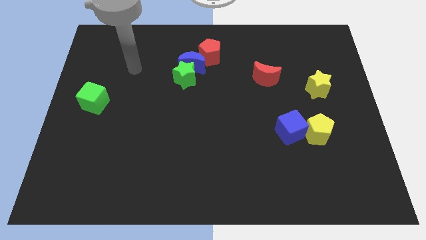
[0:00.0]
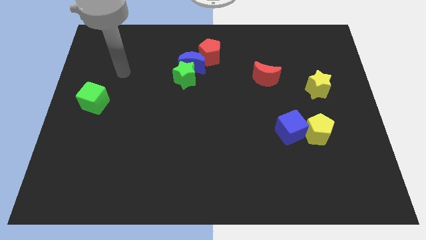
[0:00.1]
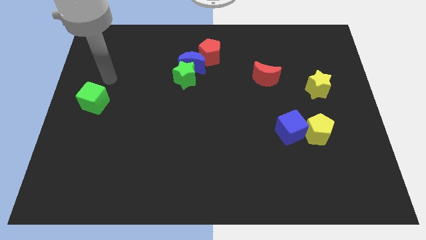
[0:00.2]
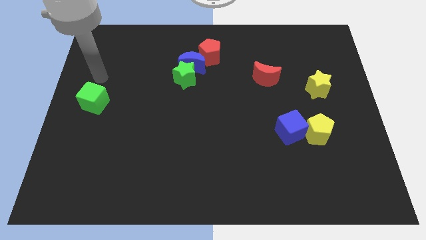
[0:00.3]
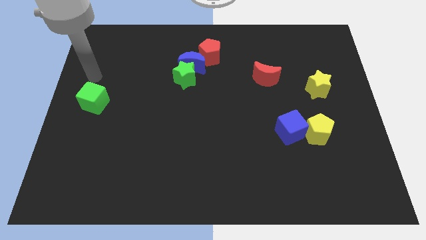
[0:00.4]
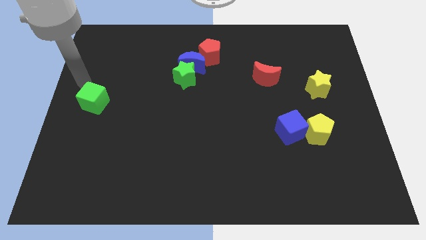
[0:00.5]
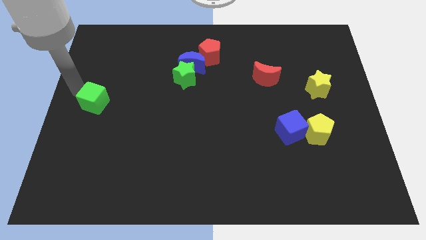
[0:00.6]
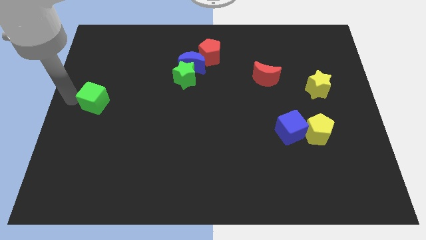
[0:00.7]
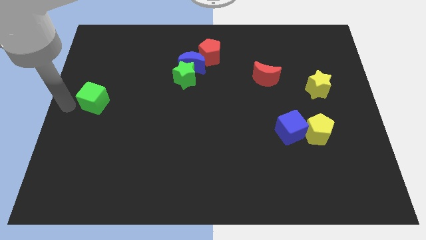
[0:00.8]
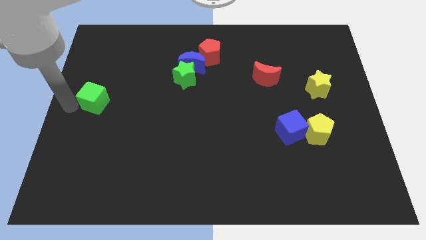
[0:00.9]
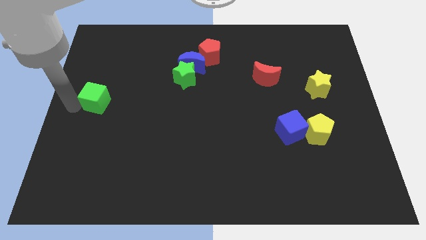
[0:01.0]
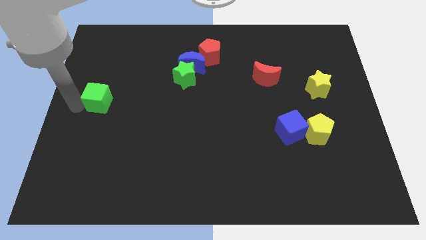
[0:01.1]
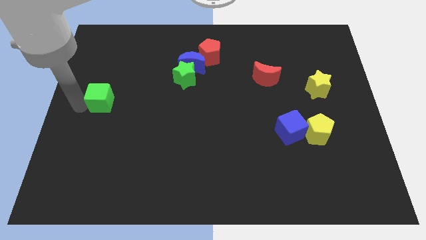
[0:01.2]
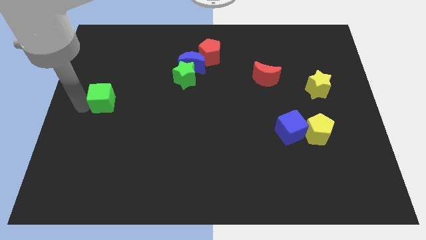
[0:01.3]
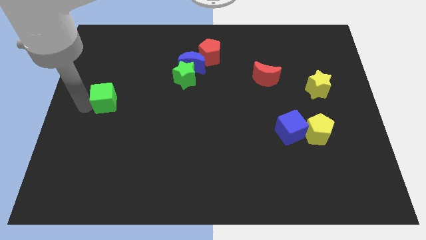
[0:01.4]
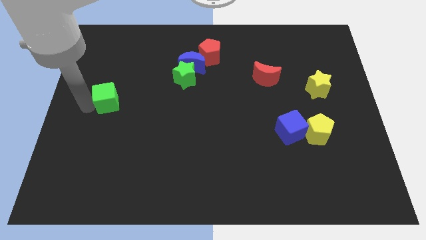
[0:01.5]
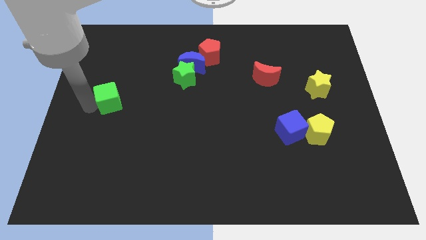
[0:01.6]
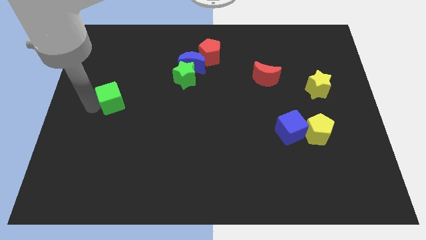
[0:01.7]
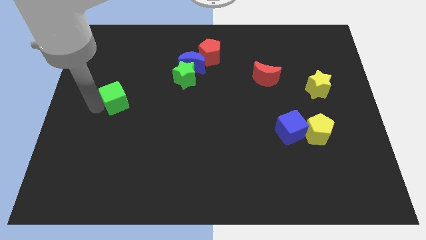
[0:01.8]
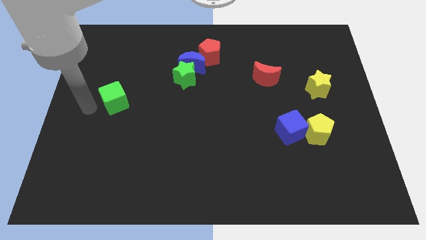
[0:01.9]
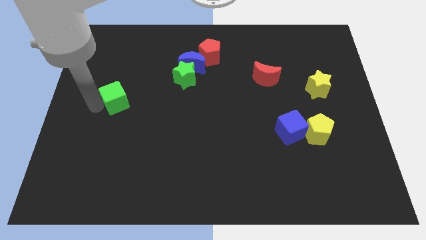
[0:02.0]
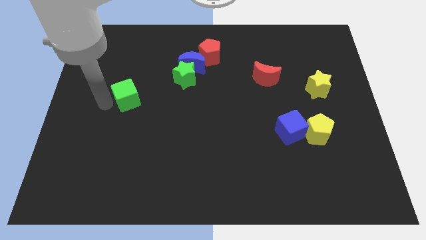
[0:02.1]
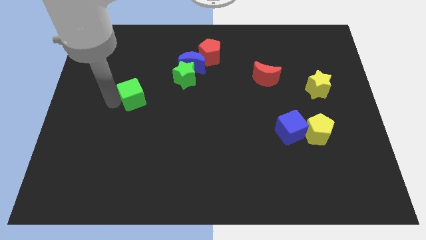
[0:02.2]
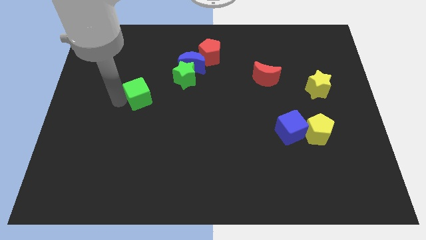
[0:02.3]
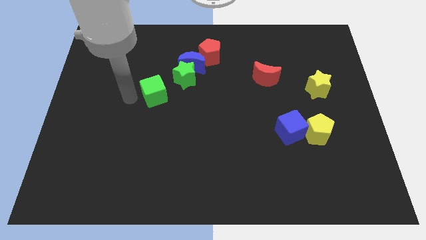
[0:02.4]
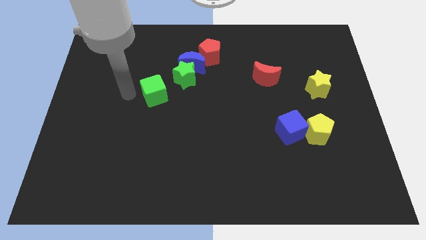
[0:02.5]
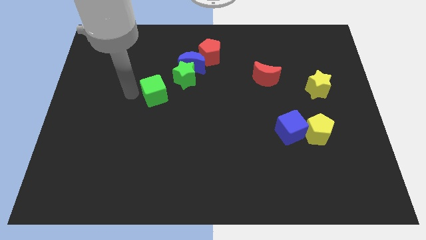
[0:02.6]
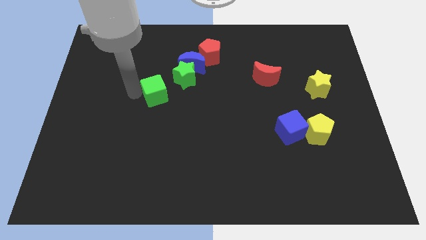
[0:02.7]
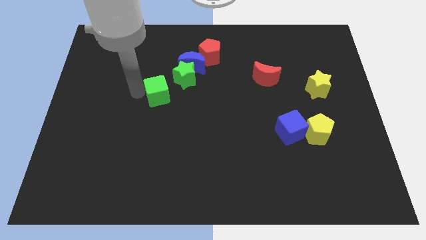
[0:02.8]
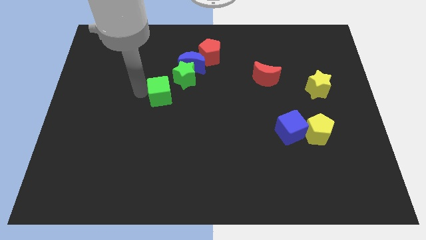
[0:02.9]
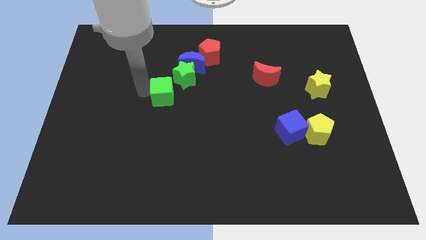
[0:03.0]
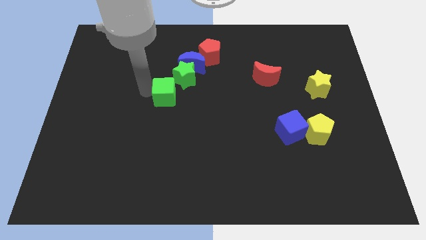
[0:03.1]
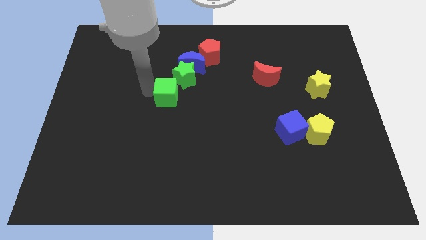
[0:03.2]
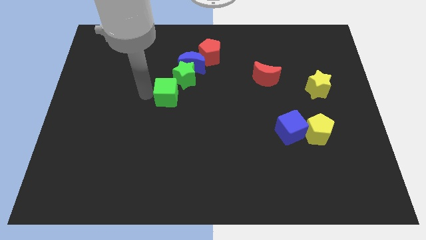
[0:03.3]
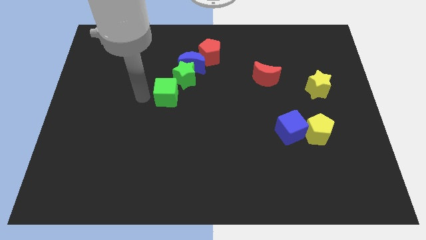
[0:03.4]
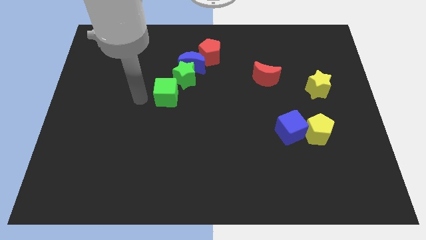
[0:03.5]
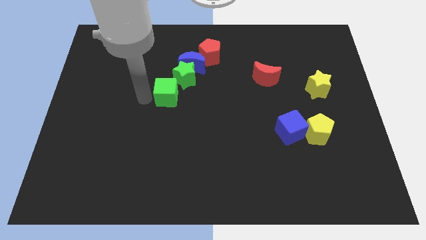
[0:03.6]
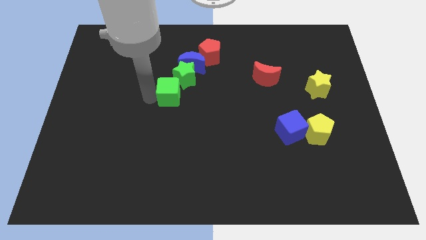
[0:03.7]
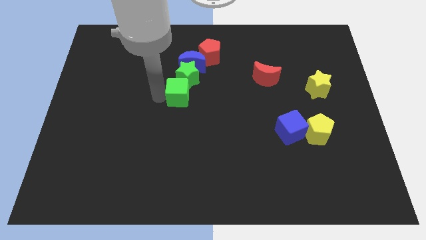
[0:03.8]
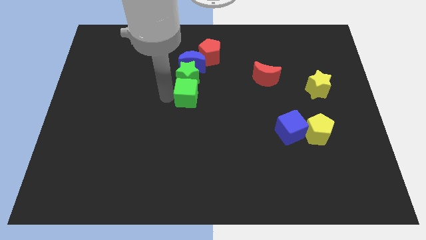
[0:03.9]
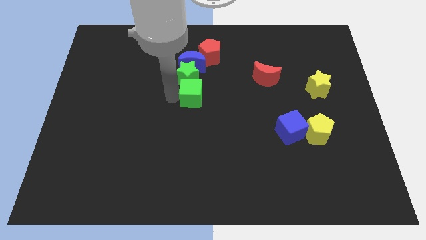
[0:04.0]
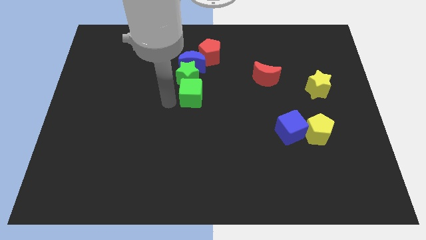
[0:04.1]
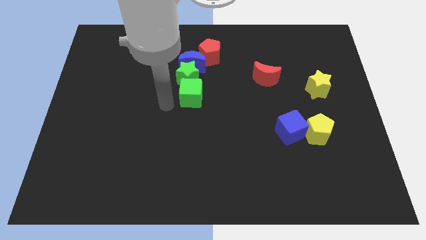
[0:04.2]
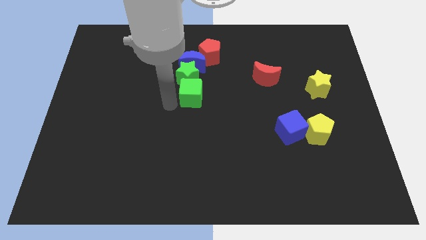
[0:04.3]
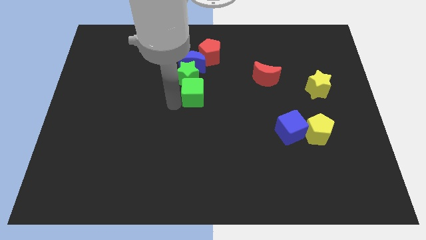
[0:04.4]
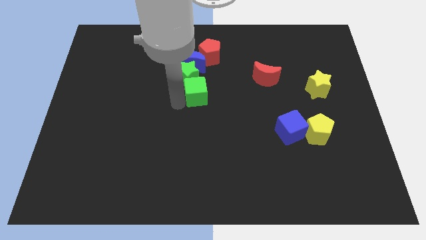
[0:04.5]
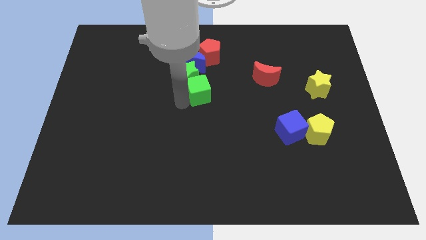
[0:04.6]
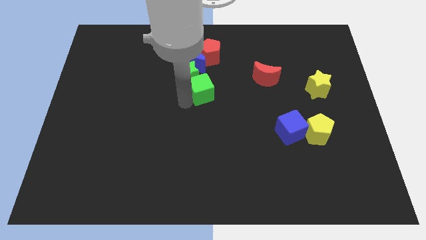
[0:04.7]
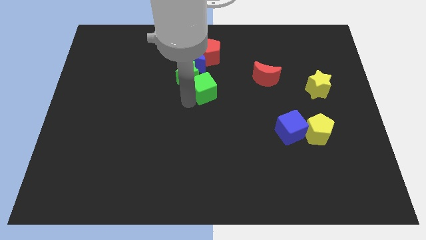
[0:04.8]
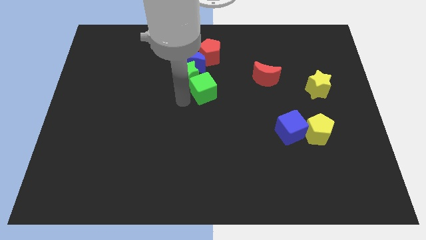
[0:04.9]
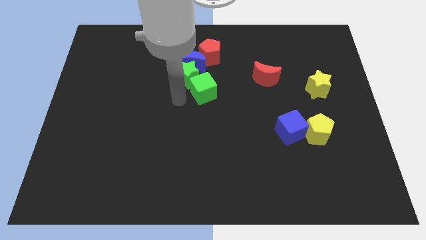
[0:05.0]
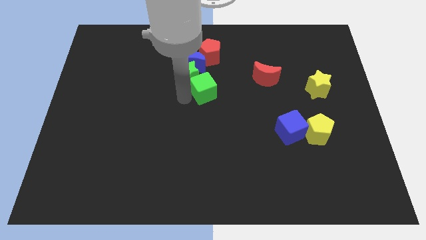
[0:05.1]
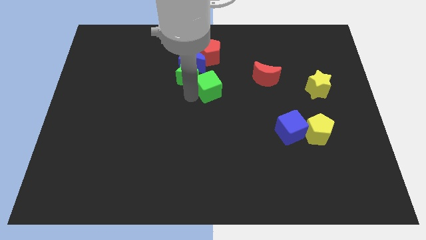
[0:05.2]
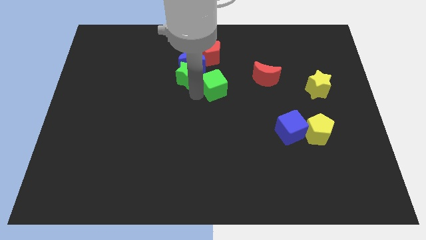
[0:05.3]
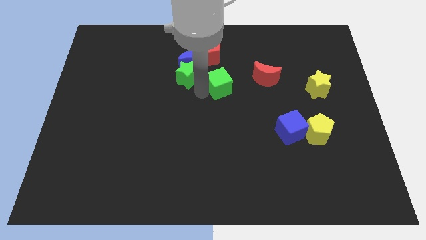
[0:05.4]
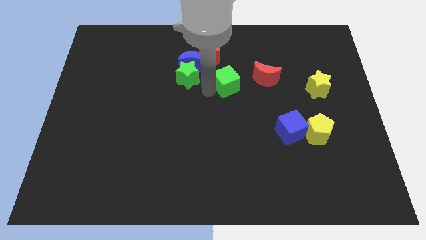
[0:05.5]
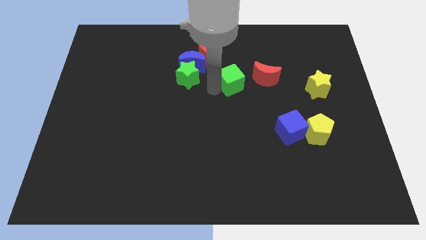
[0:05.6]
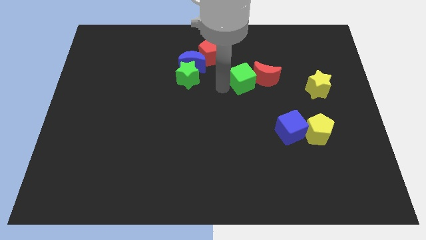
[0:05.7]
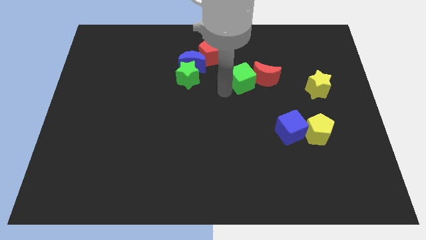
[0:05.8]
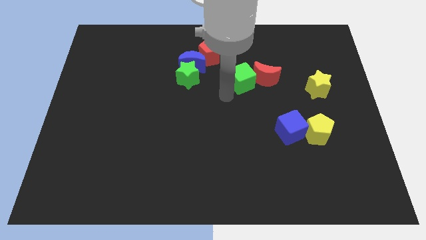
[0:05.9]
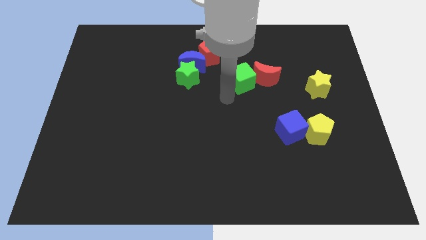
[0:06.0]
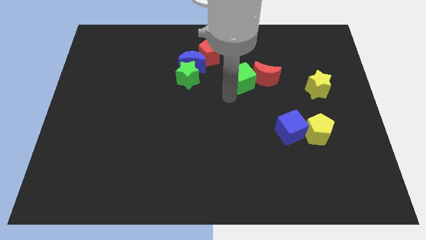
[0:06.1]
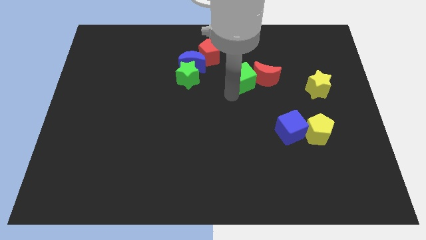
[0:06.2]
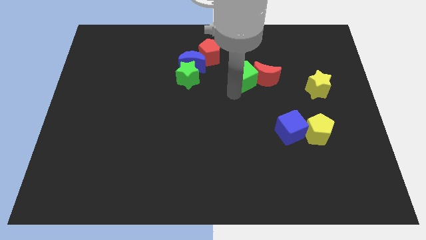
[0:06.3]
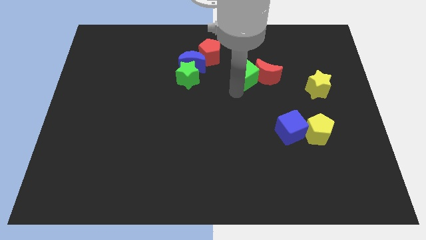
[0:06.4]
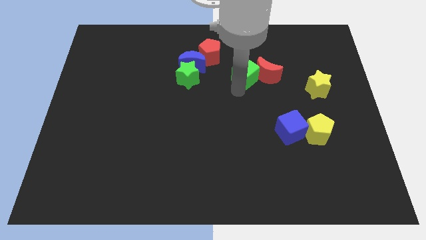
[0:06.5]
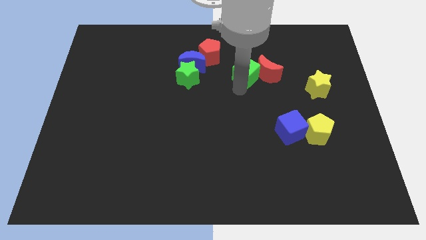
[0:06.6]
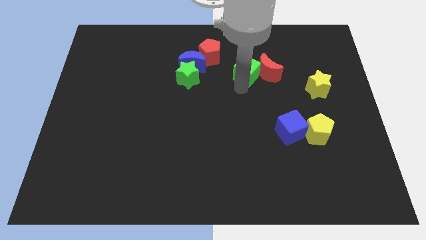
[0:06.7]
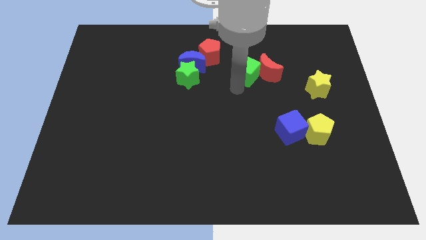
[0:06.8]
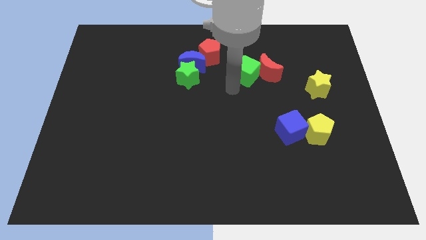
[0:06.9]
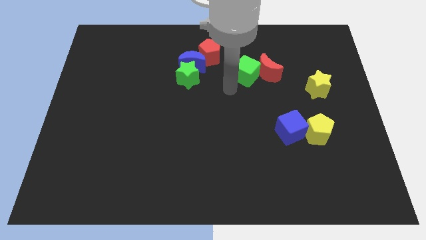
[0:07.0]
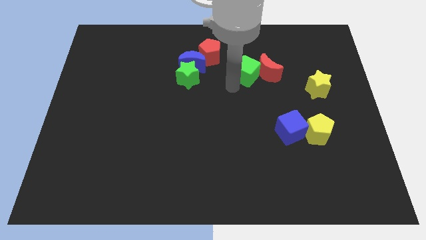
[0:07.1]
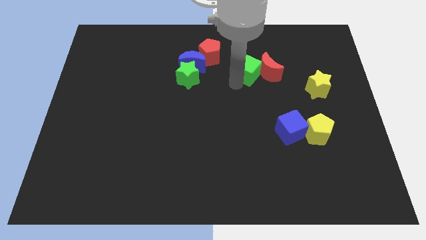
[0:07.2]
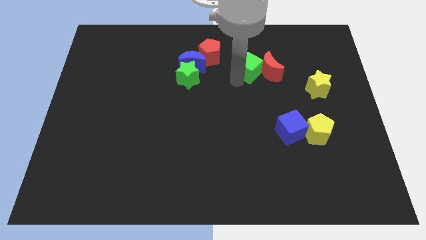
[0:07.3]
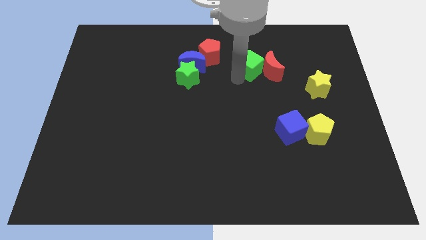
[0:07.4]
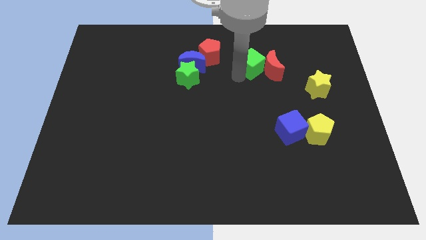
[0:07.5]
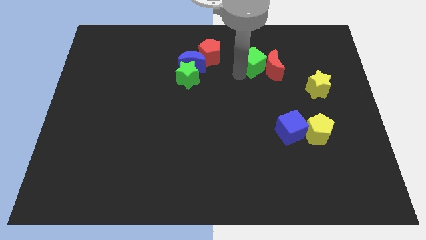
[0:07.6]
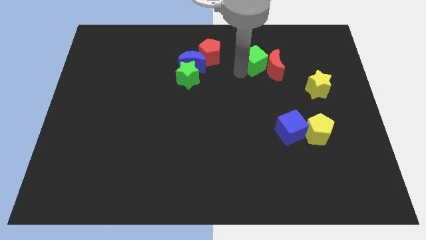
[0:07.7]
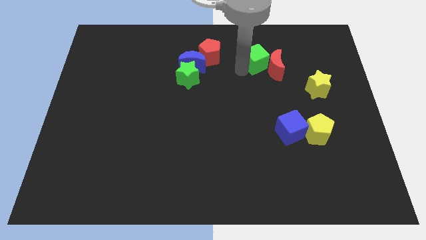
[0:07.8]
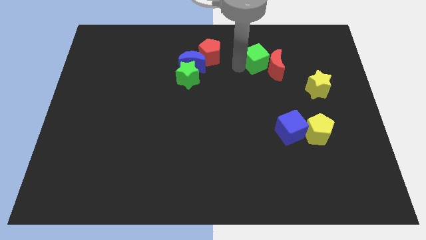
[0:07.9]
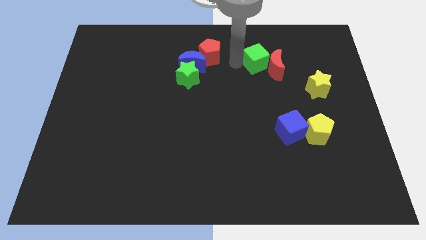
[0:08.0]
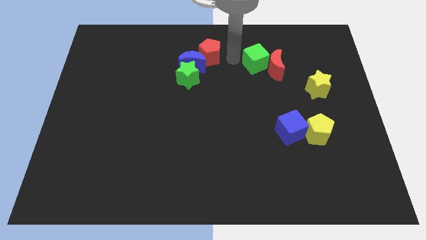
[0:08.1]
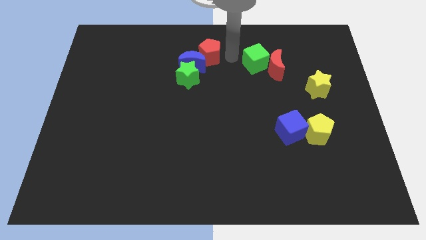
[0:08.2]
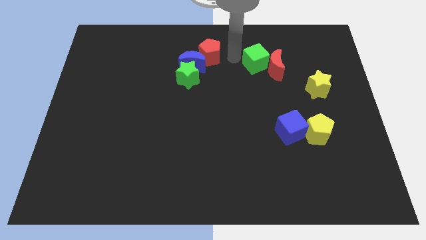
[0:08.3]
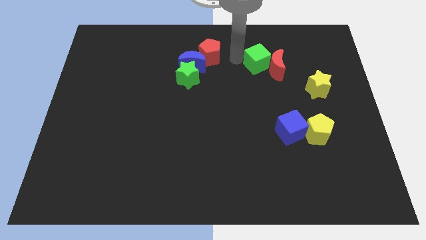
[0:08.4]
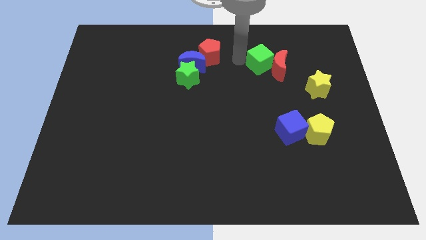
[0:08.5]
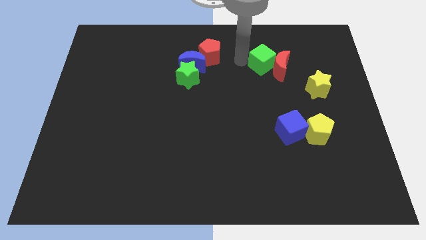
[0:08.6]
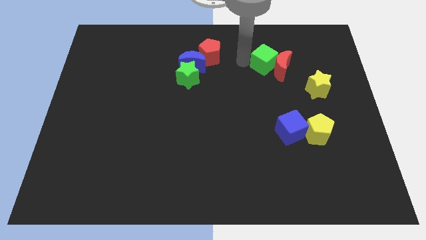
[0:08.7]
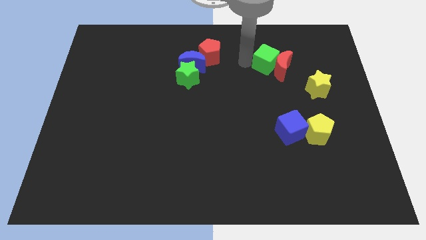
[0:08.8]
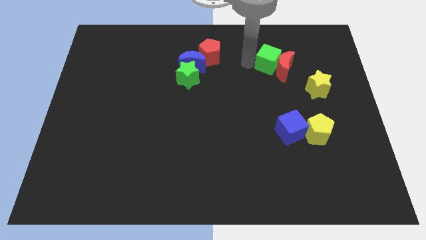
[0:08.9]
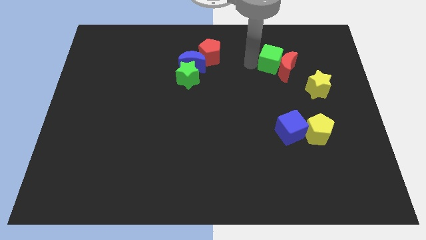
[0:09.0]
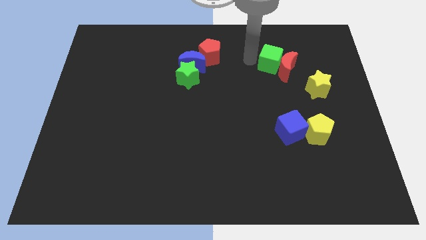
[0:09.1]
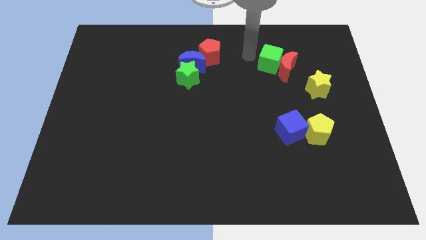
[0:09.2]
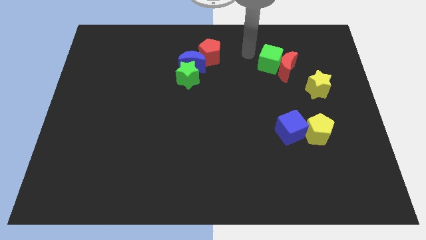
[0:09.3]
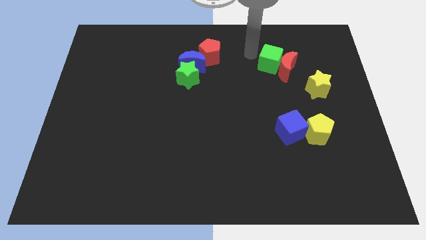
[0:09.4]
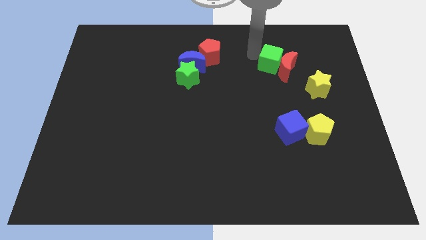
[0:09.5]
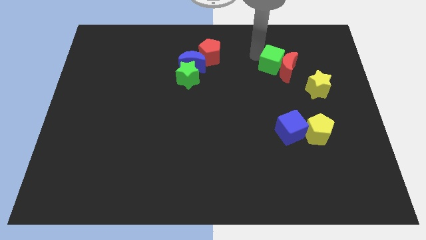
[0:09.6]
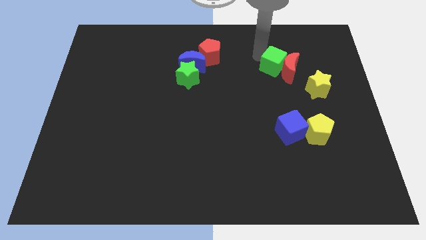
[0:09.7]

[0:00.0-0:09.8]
push the green cube diagonally up and to the left of the yellow star
